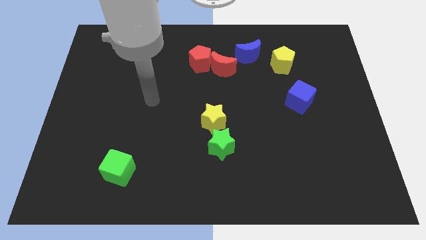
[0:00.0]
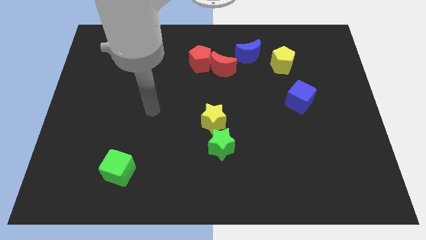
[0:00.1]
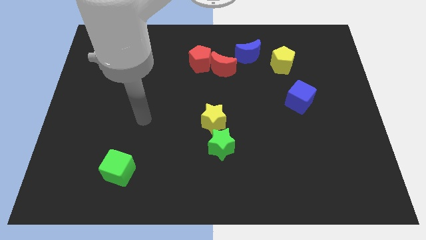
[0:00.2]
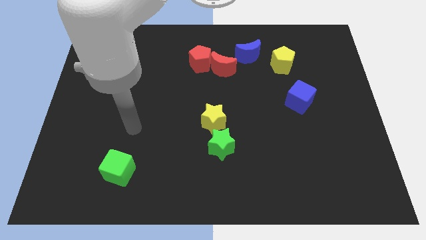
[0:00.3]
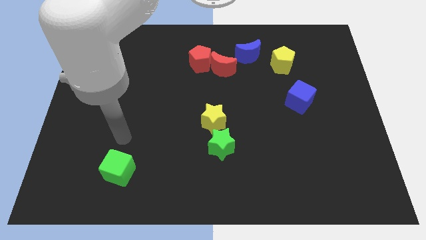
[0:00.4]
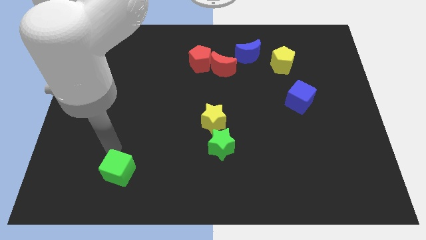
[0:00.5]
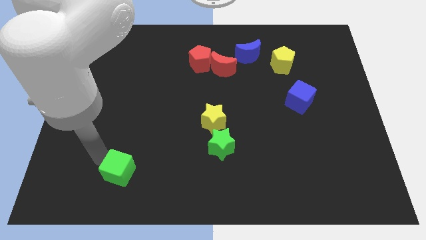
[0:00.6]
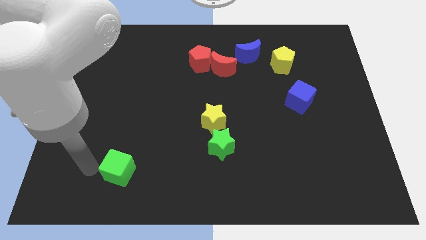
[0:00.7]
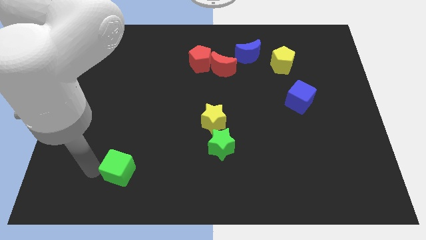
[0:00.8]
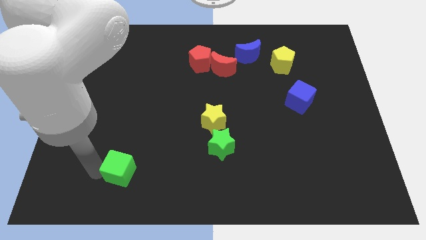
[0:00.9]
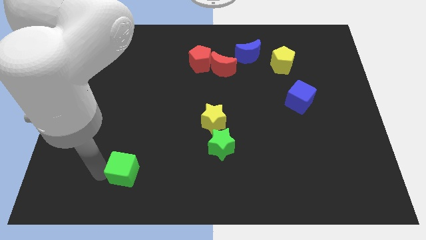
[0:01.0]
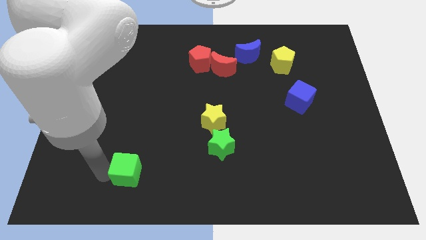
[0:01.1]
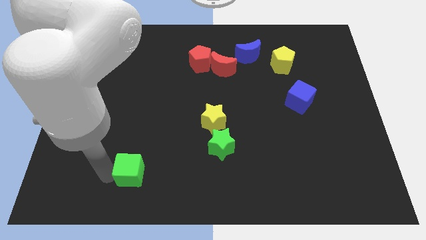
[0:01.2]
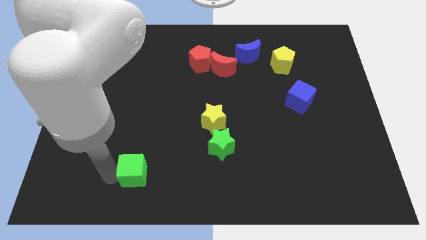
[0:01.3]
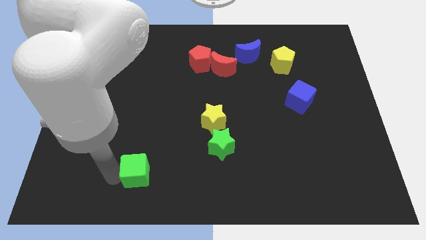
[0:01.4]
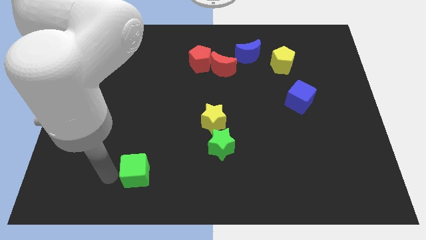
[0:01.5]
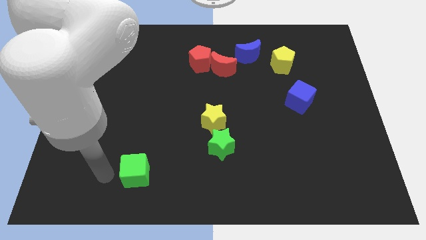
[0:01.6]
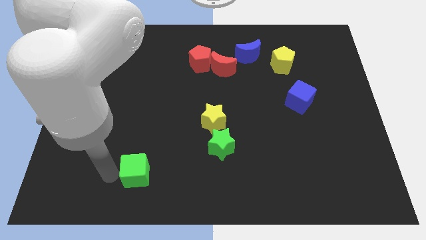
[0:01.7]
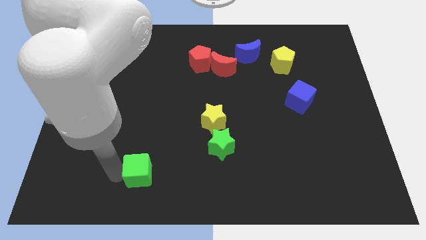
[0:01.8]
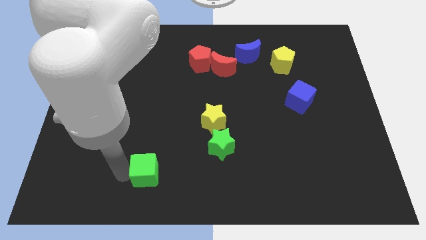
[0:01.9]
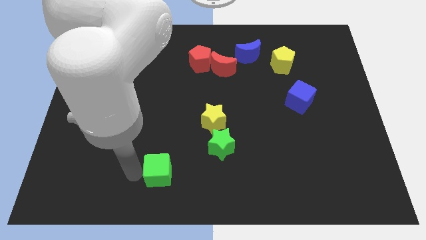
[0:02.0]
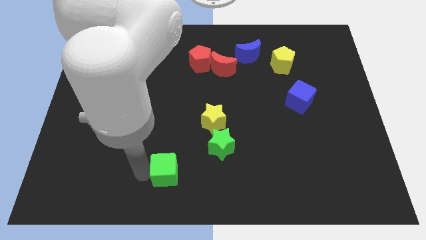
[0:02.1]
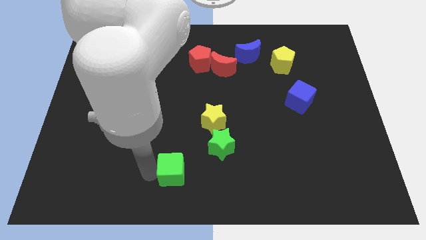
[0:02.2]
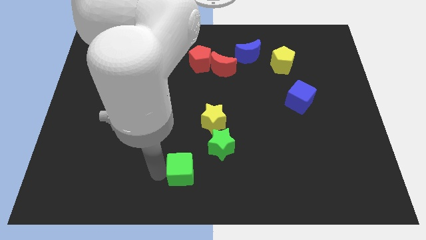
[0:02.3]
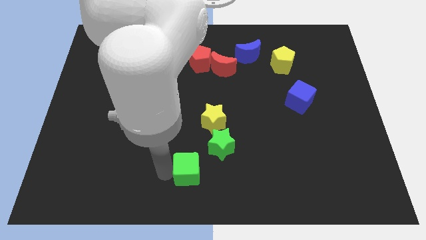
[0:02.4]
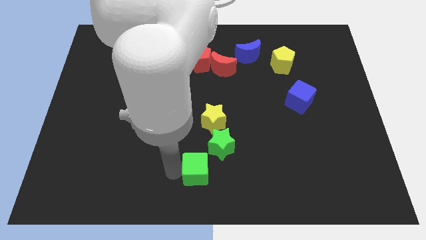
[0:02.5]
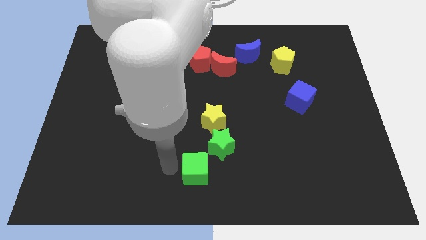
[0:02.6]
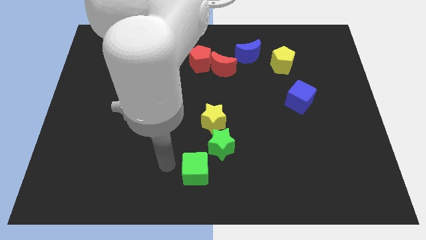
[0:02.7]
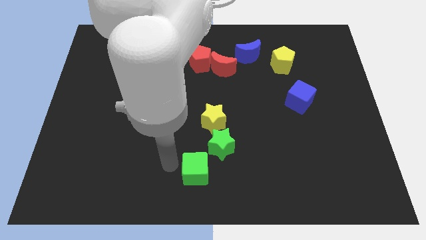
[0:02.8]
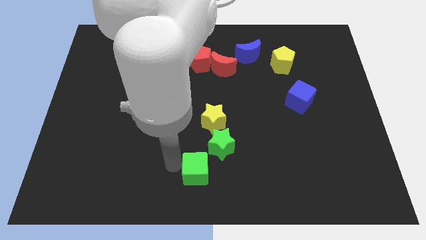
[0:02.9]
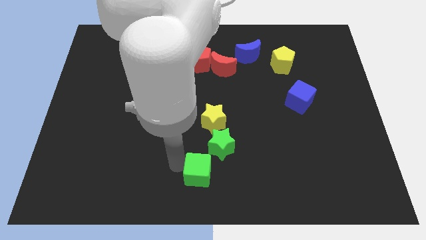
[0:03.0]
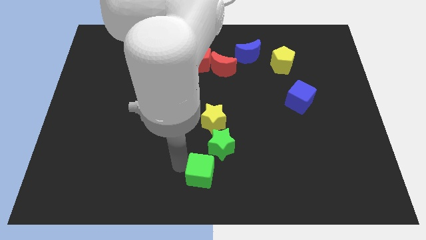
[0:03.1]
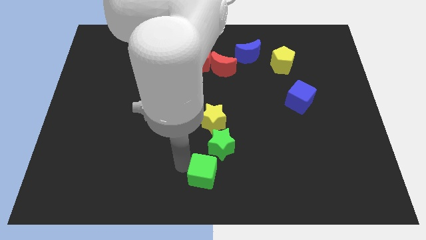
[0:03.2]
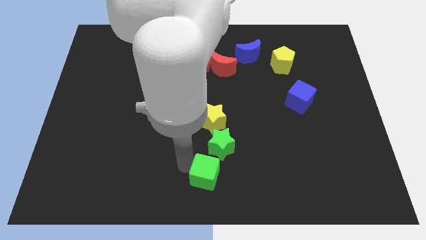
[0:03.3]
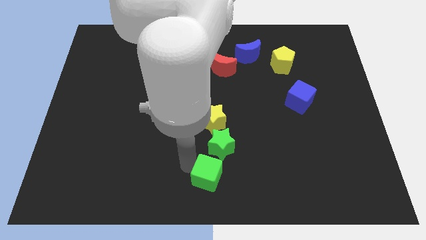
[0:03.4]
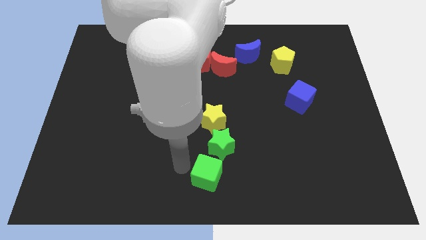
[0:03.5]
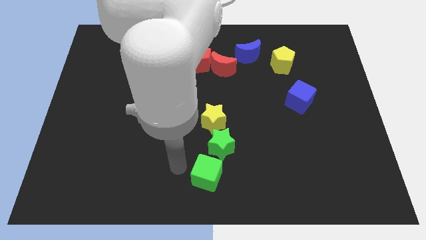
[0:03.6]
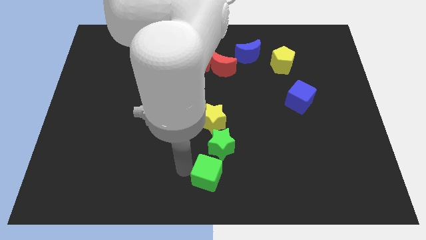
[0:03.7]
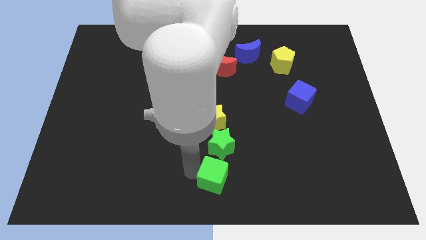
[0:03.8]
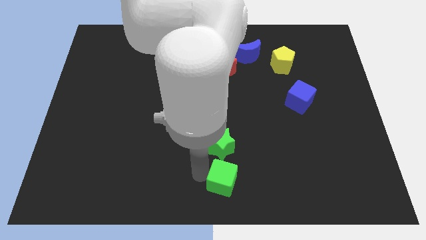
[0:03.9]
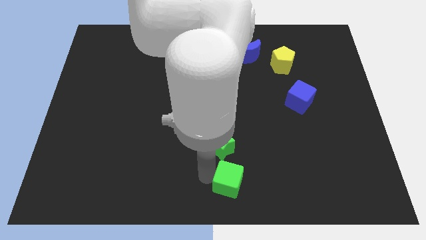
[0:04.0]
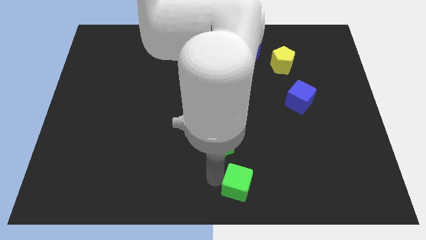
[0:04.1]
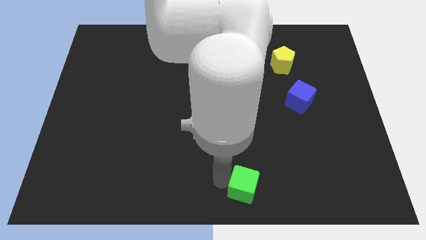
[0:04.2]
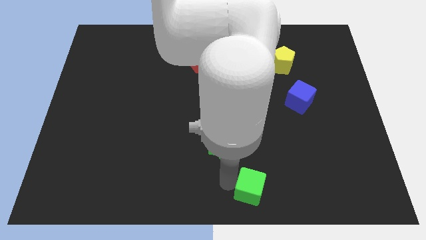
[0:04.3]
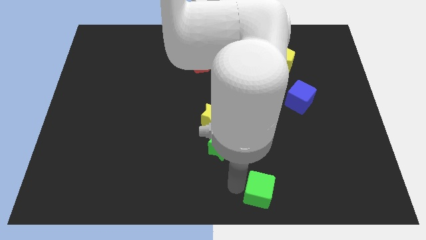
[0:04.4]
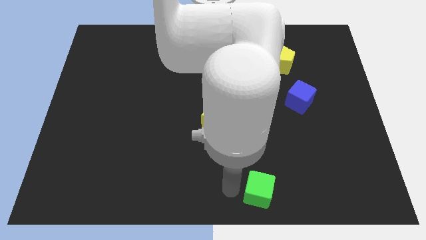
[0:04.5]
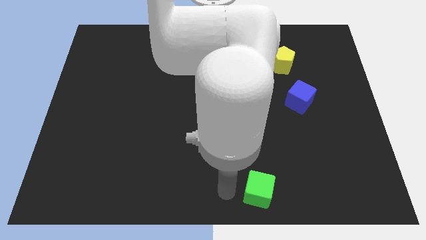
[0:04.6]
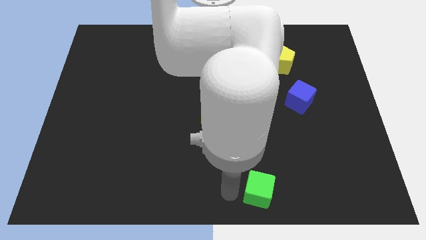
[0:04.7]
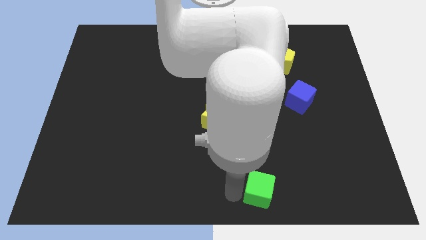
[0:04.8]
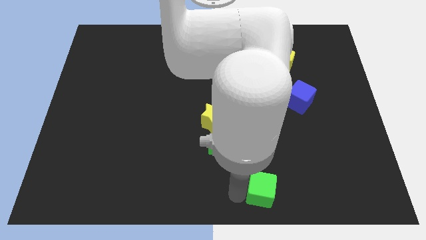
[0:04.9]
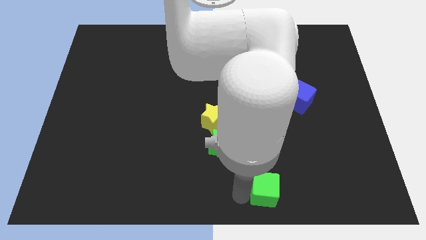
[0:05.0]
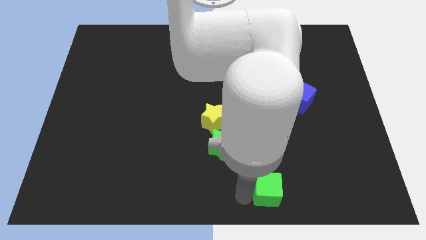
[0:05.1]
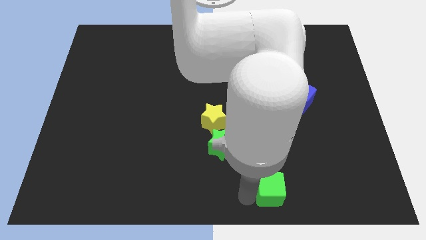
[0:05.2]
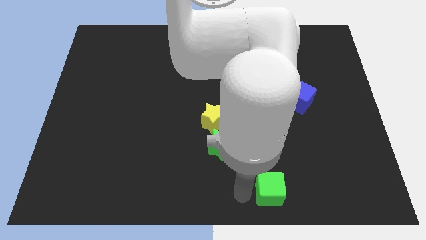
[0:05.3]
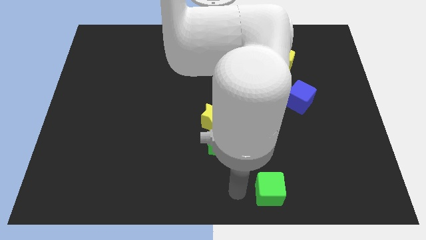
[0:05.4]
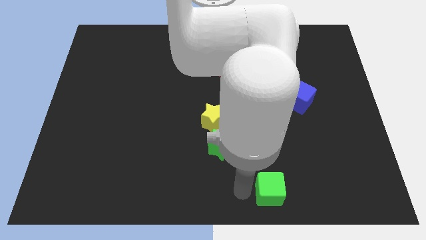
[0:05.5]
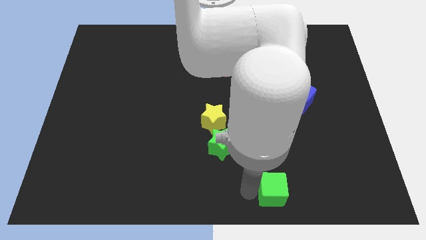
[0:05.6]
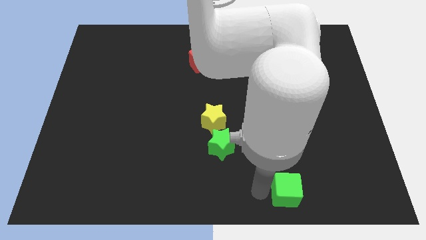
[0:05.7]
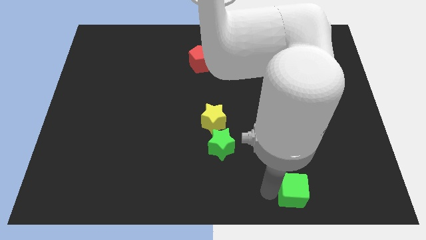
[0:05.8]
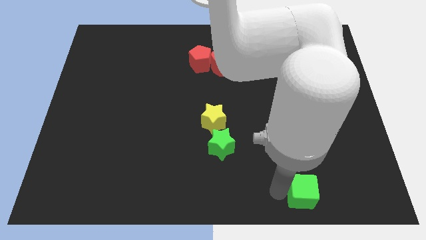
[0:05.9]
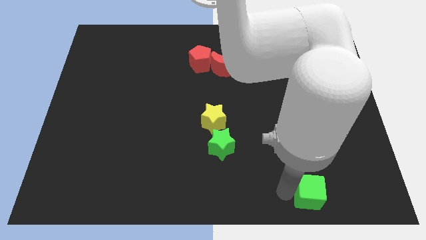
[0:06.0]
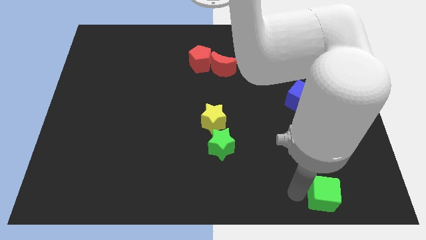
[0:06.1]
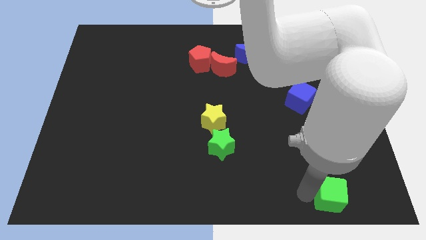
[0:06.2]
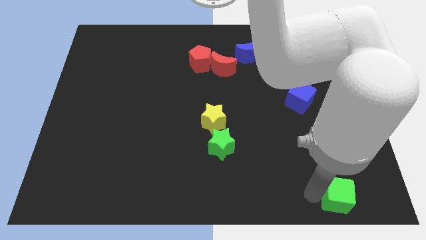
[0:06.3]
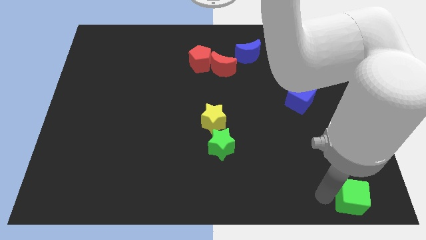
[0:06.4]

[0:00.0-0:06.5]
move the green cube to the bottom right corner
